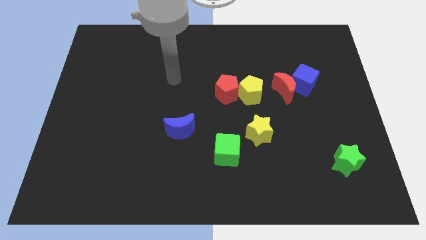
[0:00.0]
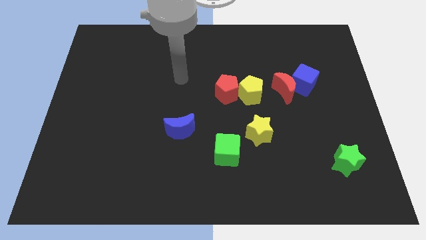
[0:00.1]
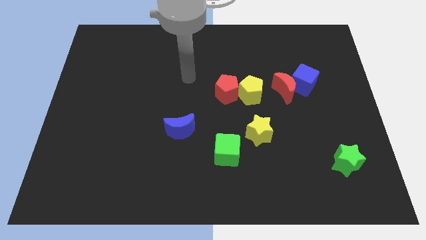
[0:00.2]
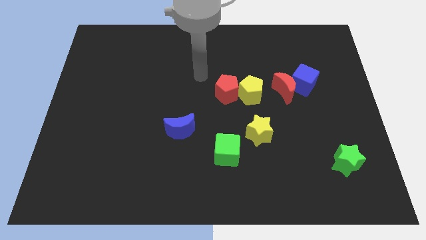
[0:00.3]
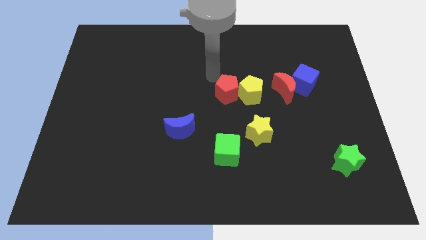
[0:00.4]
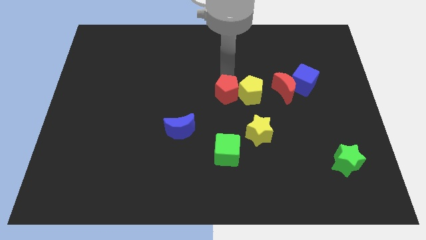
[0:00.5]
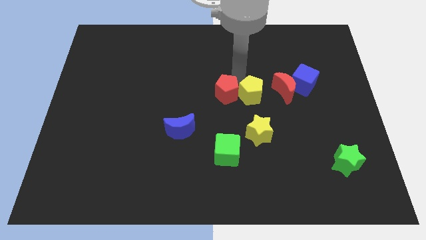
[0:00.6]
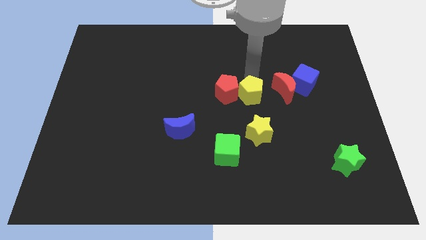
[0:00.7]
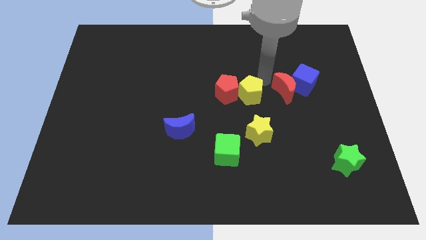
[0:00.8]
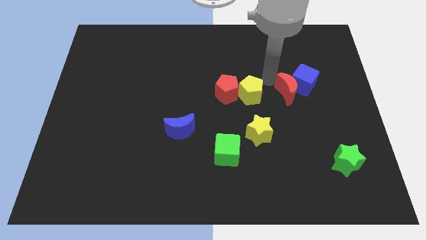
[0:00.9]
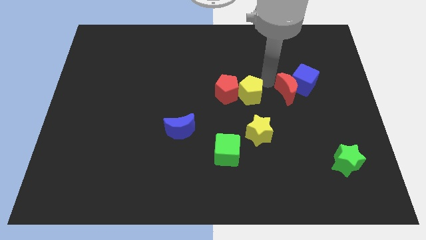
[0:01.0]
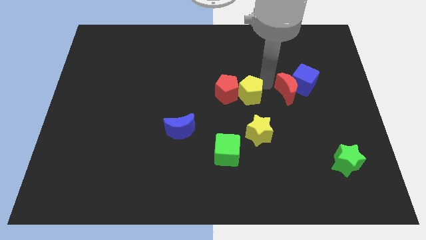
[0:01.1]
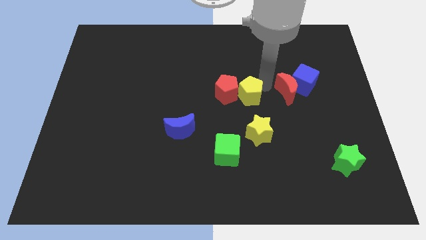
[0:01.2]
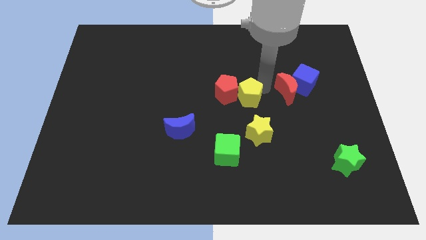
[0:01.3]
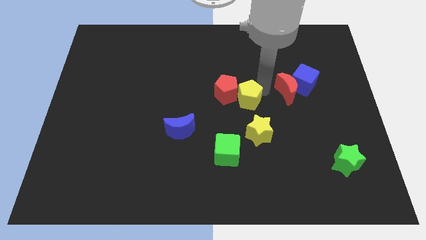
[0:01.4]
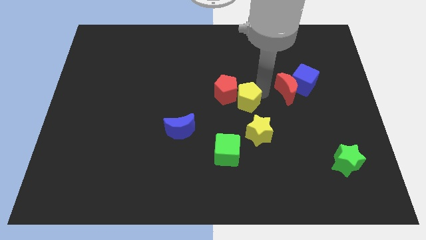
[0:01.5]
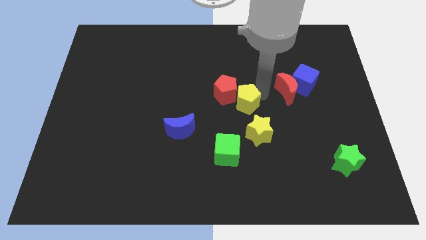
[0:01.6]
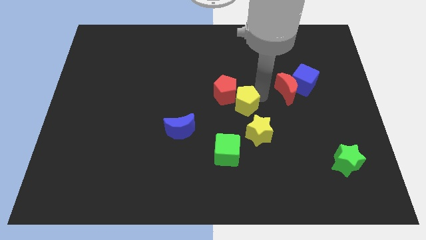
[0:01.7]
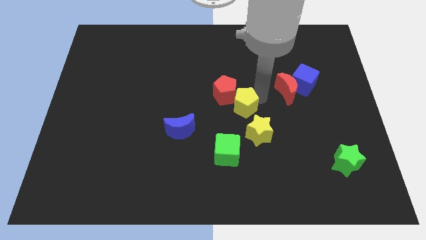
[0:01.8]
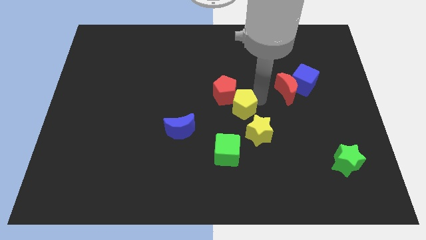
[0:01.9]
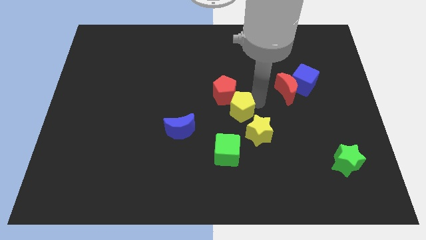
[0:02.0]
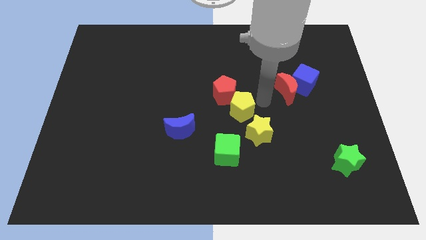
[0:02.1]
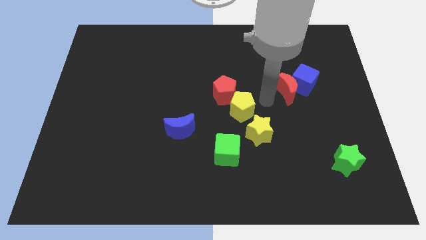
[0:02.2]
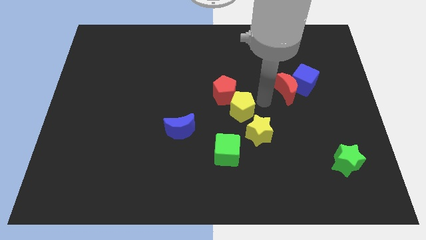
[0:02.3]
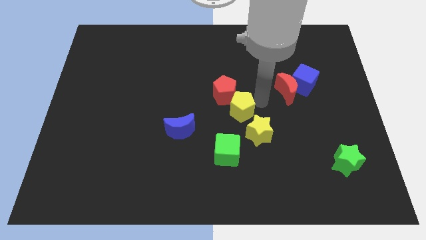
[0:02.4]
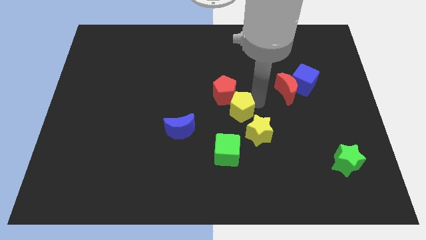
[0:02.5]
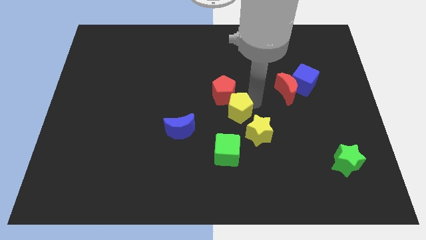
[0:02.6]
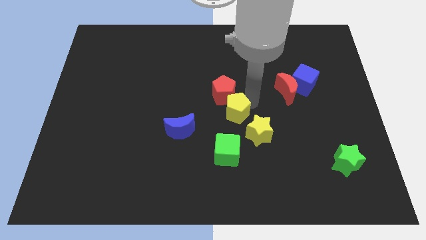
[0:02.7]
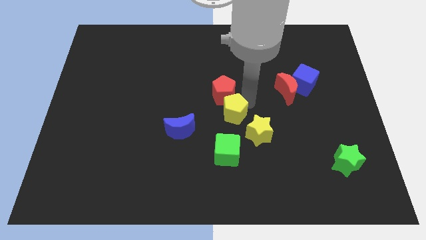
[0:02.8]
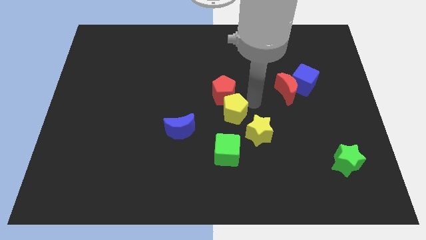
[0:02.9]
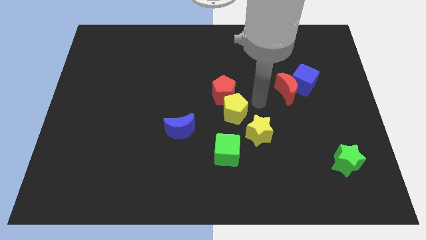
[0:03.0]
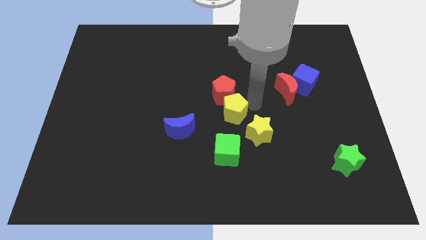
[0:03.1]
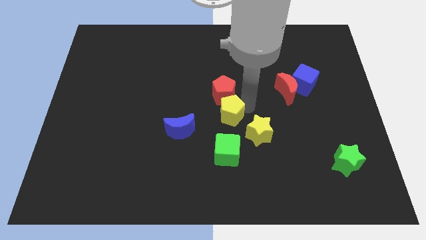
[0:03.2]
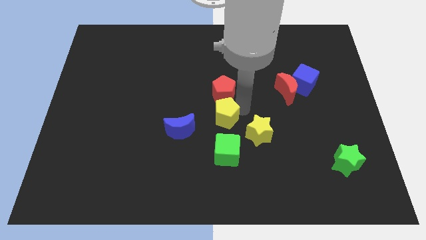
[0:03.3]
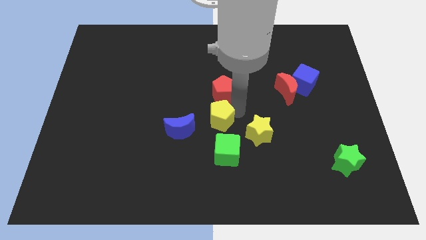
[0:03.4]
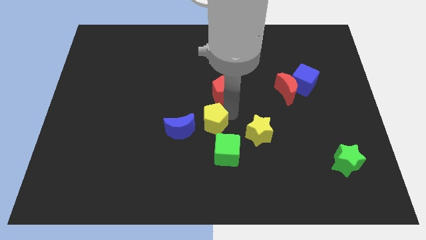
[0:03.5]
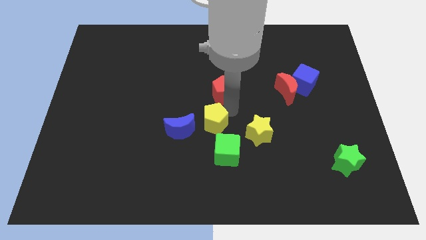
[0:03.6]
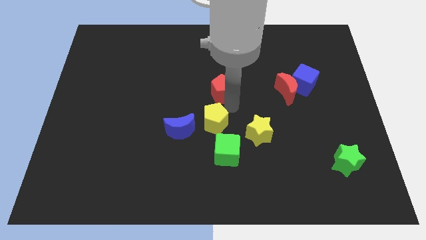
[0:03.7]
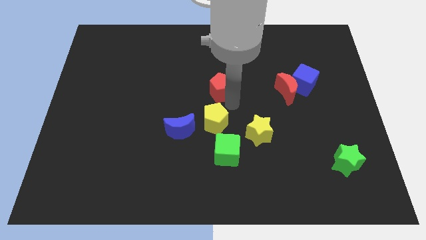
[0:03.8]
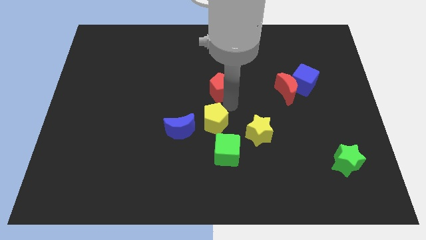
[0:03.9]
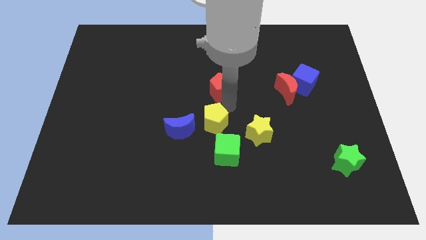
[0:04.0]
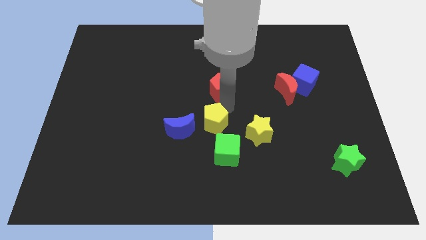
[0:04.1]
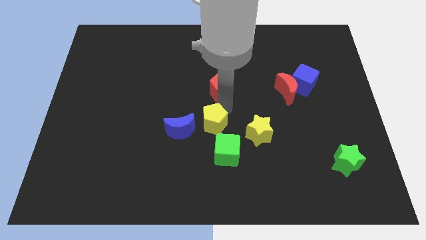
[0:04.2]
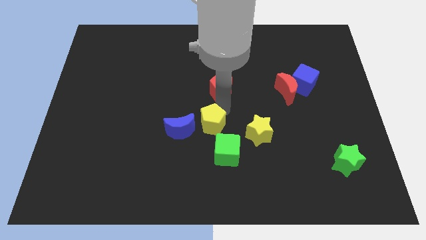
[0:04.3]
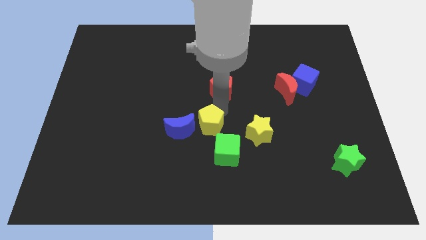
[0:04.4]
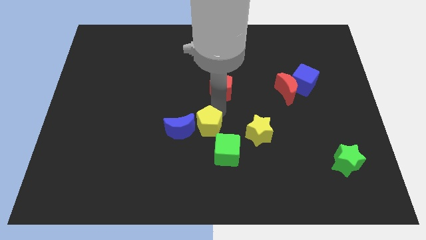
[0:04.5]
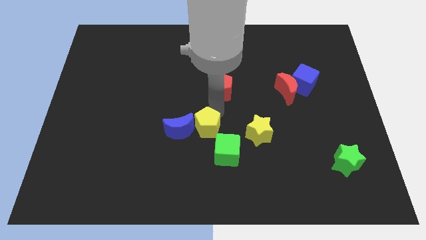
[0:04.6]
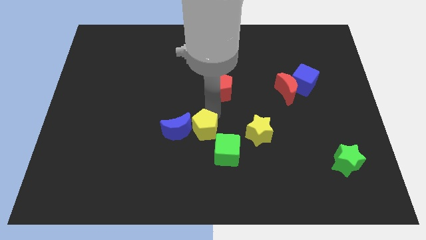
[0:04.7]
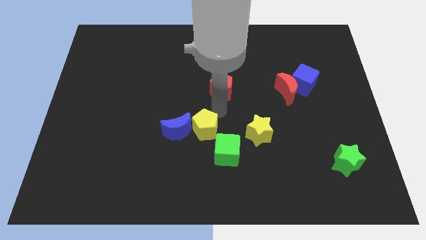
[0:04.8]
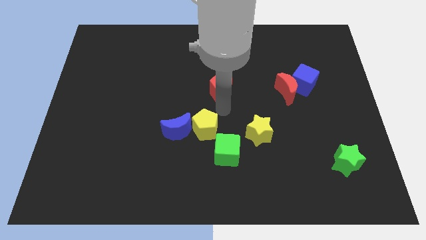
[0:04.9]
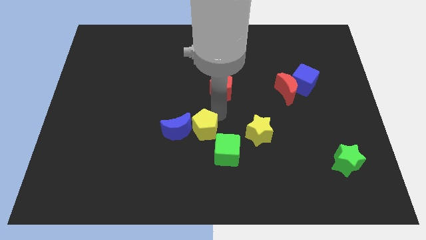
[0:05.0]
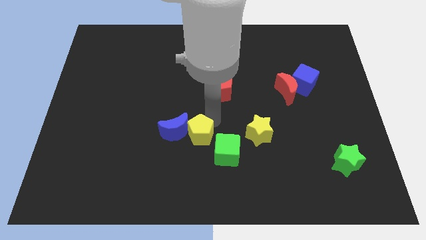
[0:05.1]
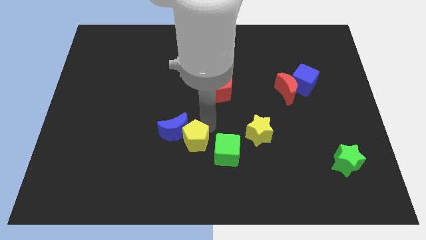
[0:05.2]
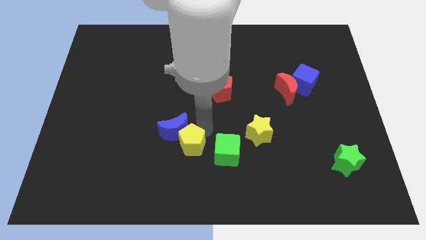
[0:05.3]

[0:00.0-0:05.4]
move the yellow pentagon down and then to the left

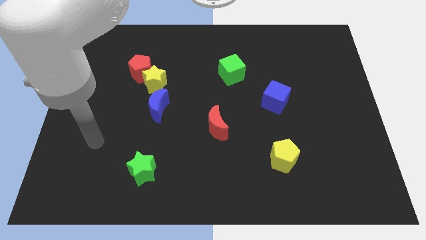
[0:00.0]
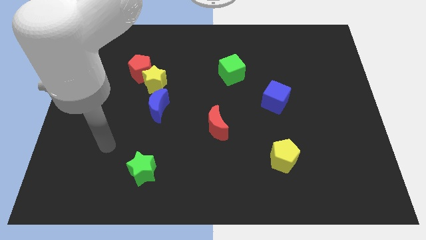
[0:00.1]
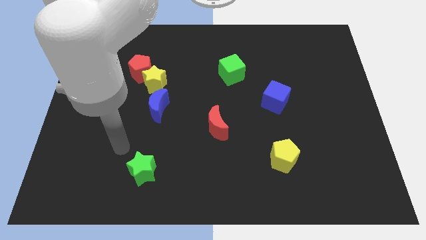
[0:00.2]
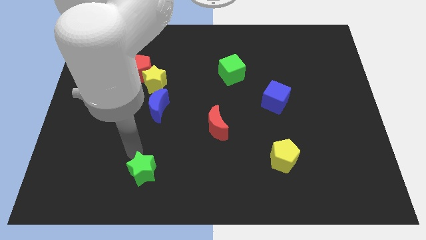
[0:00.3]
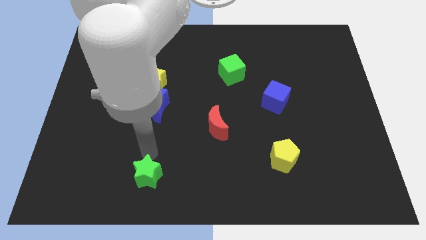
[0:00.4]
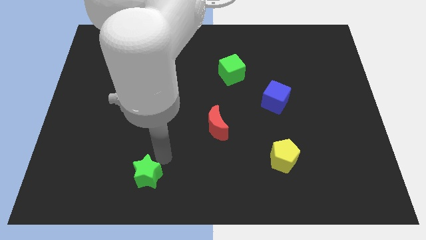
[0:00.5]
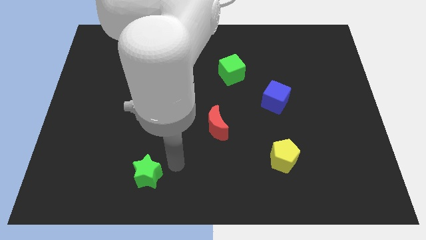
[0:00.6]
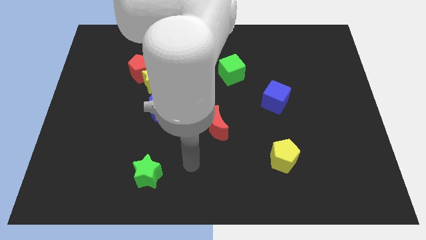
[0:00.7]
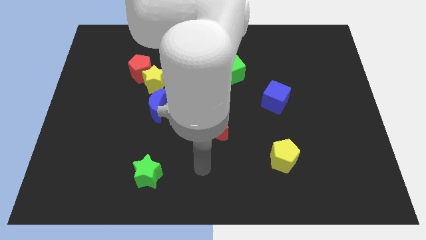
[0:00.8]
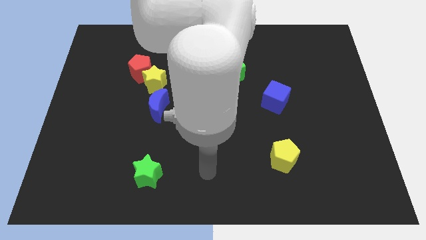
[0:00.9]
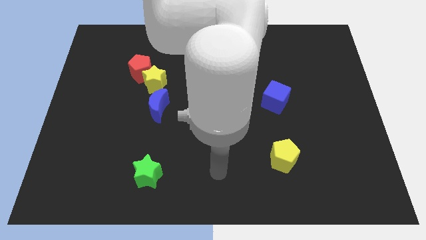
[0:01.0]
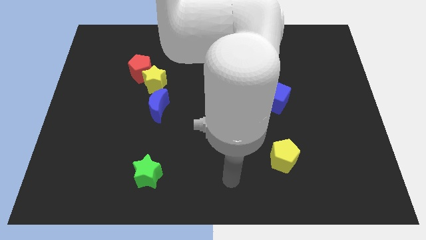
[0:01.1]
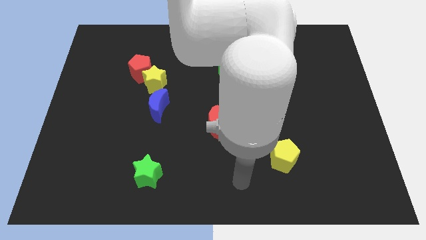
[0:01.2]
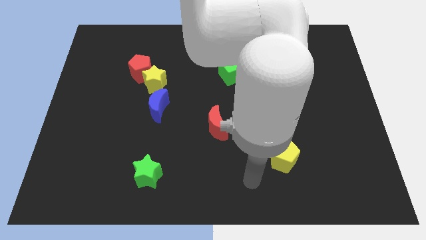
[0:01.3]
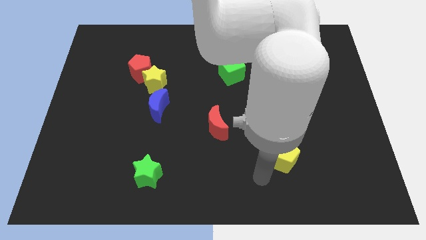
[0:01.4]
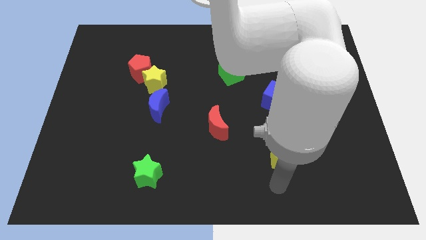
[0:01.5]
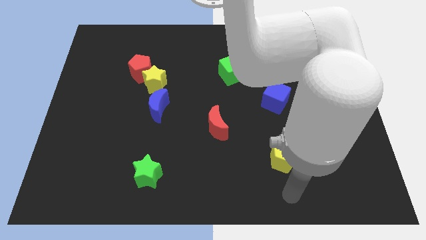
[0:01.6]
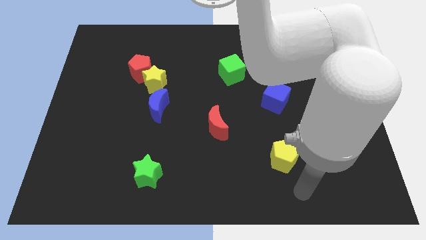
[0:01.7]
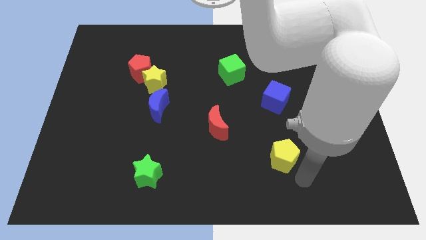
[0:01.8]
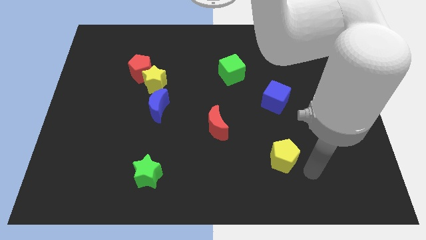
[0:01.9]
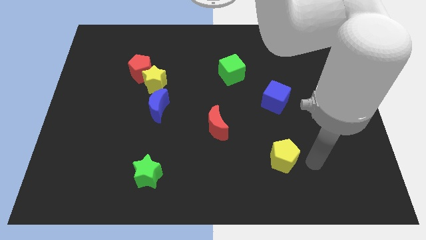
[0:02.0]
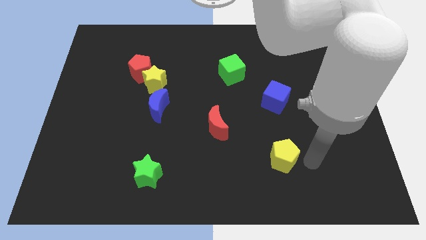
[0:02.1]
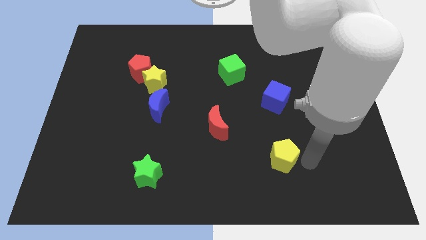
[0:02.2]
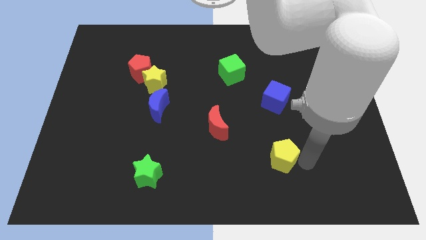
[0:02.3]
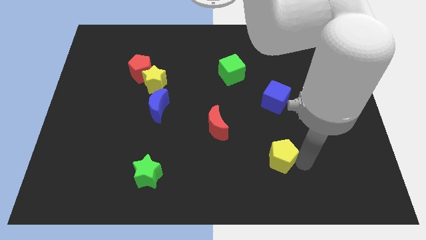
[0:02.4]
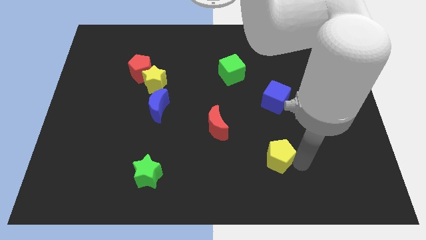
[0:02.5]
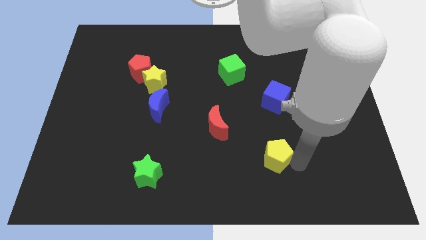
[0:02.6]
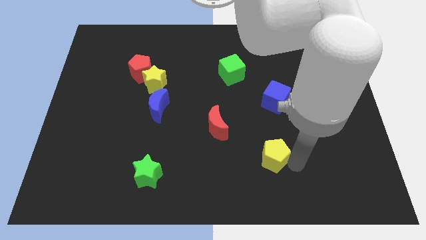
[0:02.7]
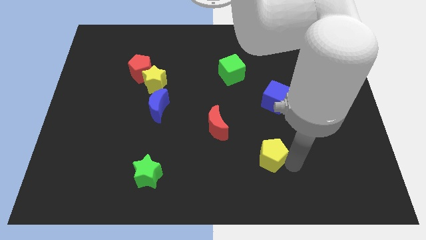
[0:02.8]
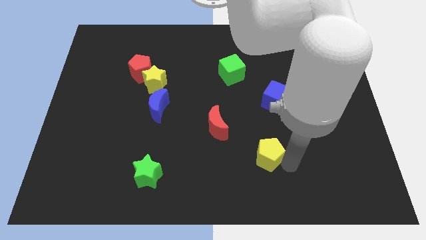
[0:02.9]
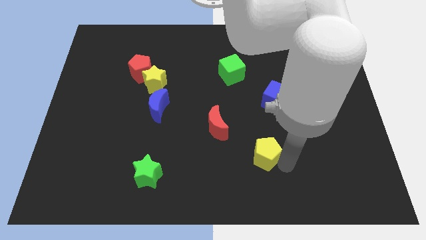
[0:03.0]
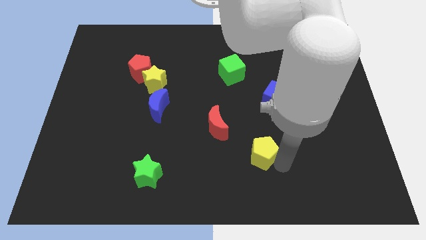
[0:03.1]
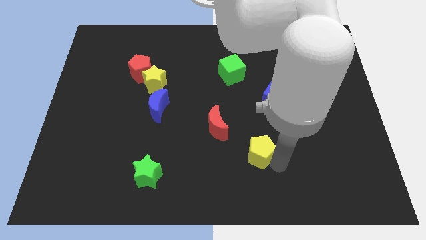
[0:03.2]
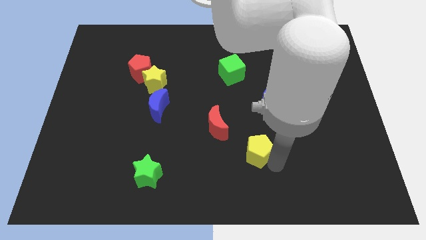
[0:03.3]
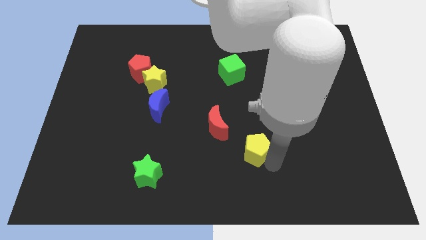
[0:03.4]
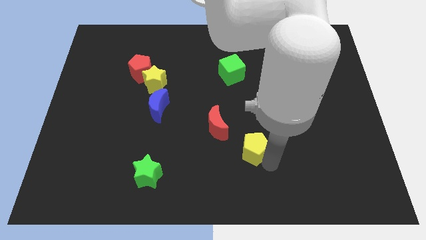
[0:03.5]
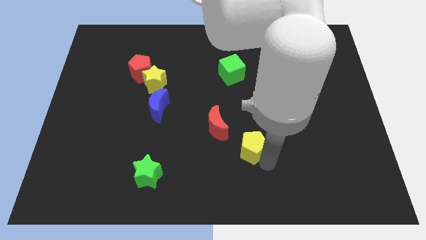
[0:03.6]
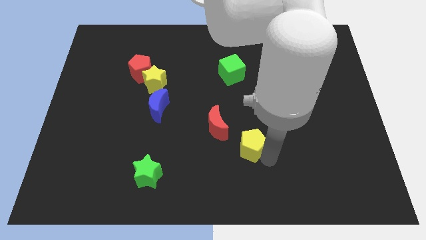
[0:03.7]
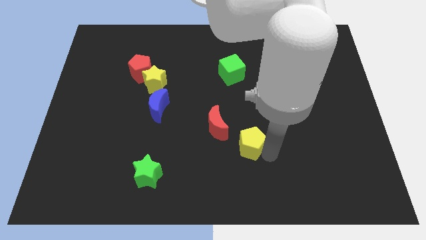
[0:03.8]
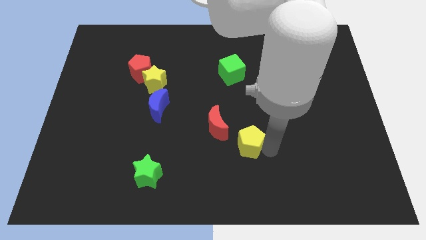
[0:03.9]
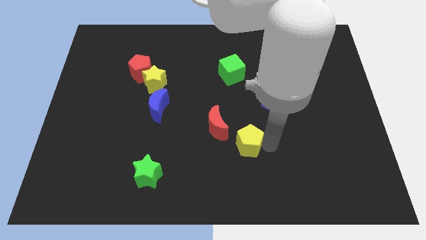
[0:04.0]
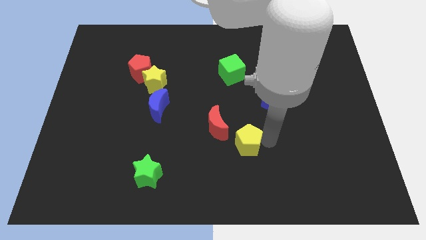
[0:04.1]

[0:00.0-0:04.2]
slightly move the yellow pentagon to the left
